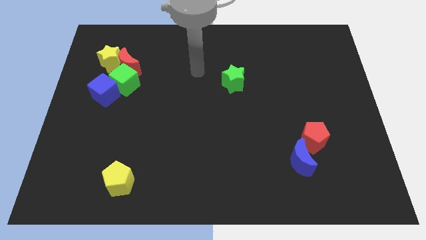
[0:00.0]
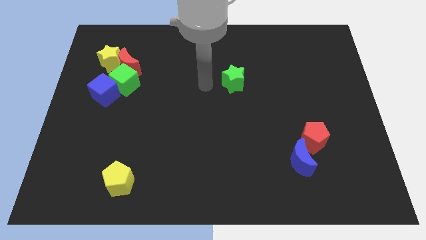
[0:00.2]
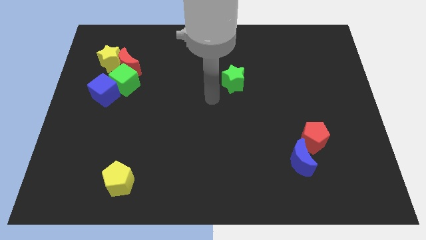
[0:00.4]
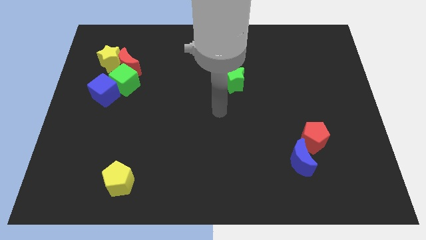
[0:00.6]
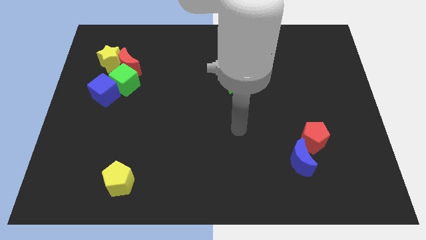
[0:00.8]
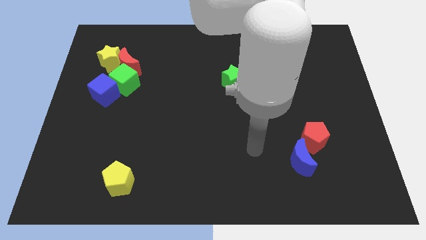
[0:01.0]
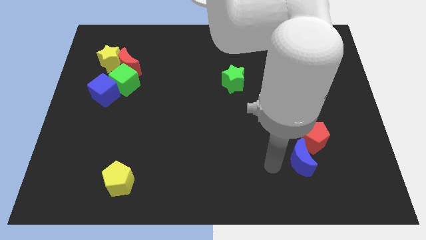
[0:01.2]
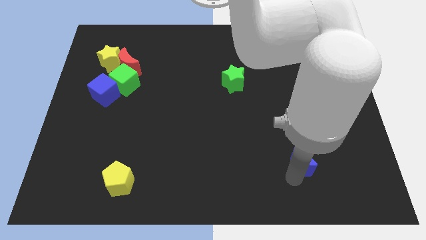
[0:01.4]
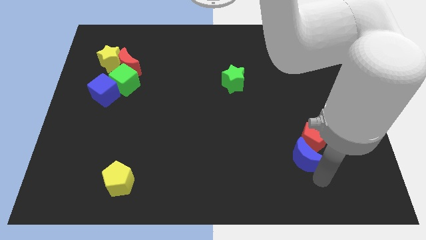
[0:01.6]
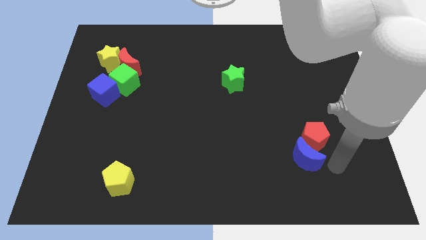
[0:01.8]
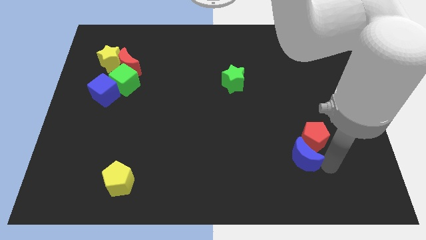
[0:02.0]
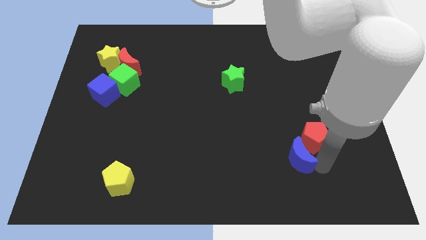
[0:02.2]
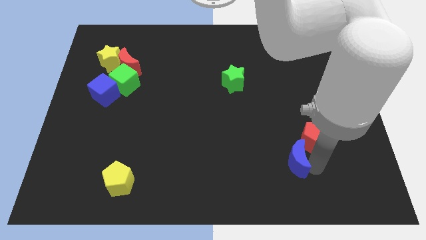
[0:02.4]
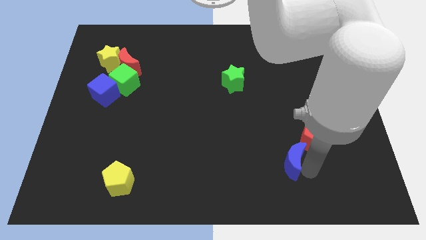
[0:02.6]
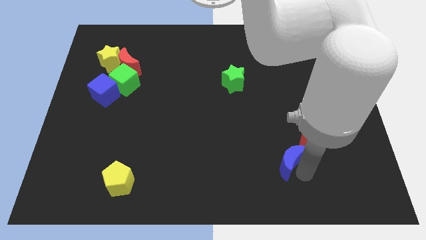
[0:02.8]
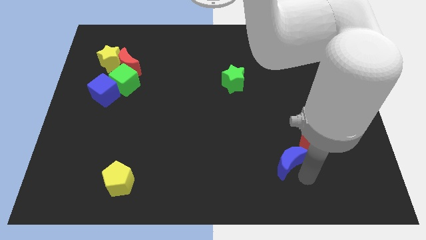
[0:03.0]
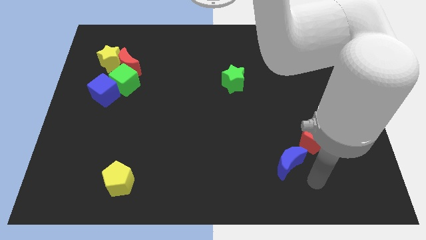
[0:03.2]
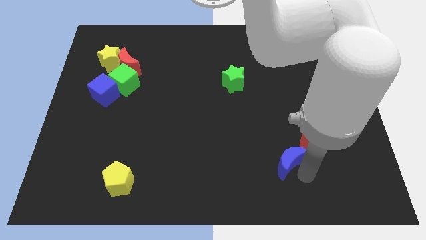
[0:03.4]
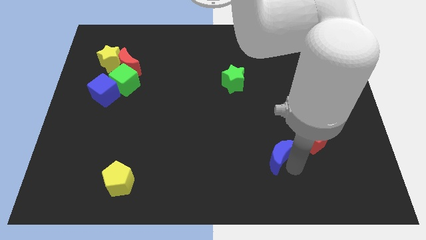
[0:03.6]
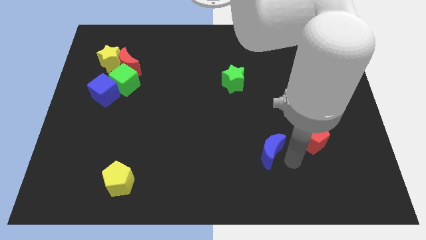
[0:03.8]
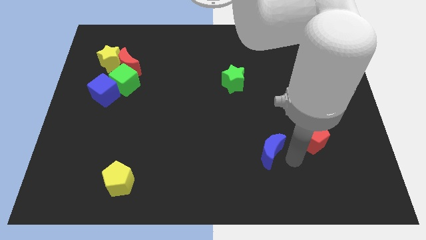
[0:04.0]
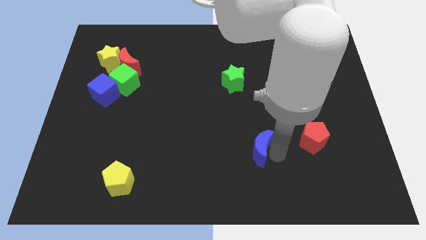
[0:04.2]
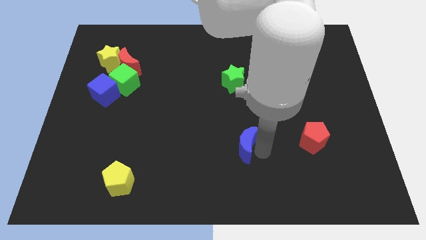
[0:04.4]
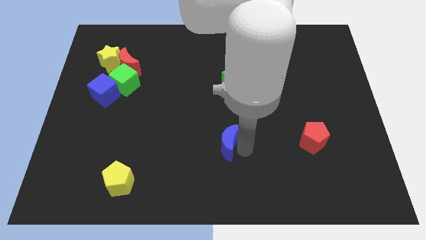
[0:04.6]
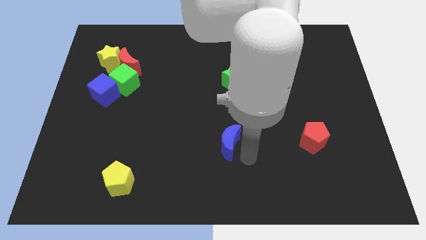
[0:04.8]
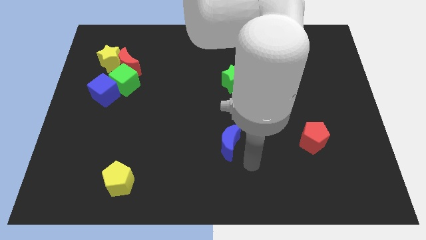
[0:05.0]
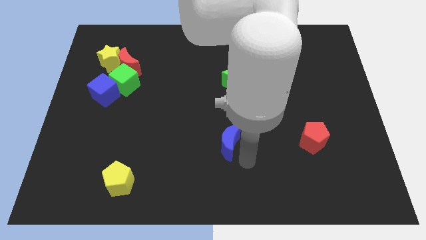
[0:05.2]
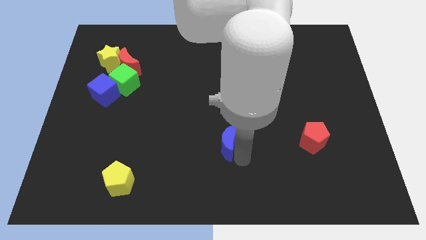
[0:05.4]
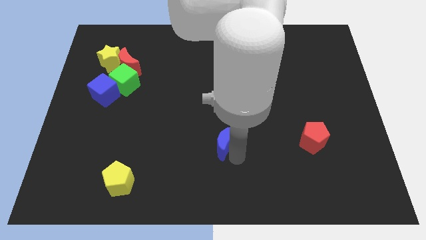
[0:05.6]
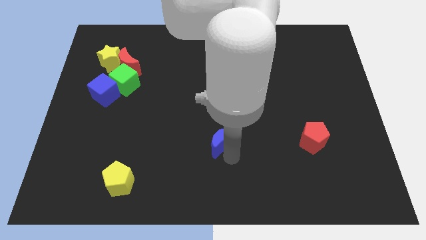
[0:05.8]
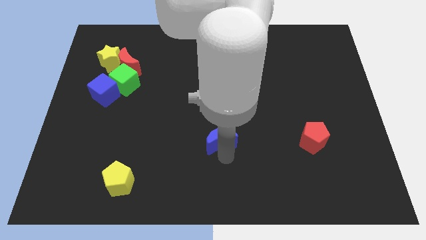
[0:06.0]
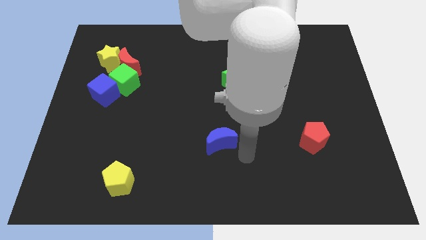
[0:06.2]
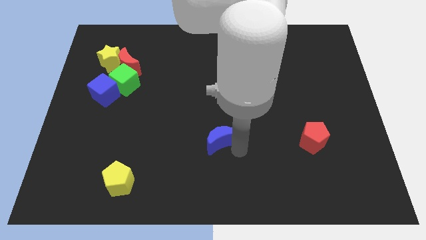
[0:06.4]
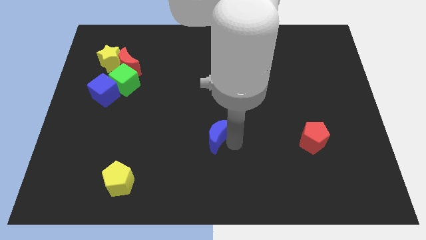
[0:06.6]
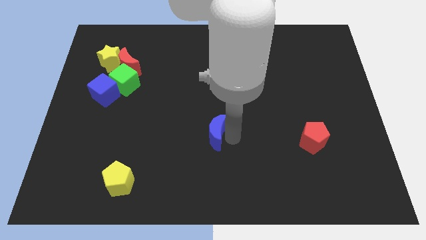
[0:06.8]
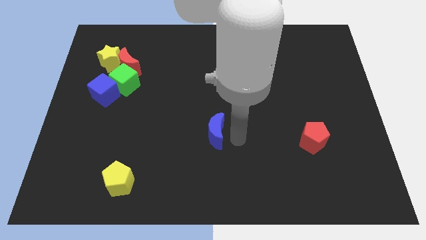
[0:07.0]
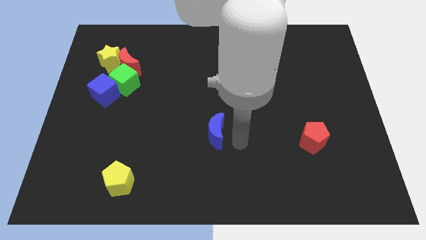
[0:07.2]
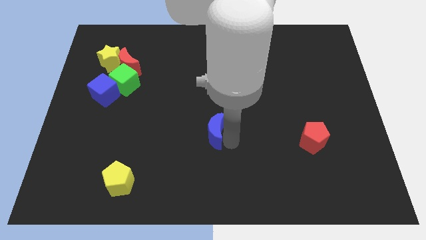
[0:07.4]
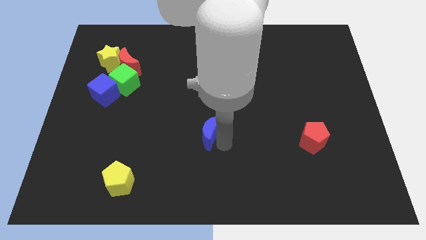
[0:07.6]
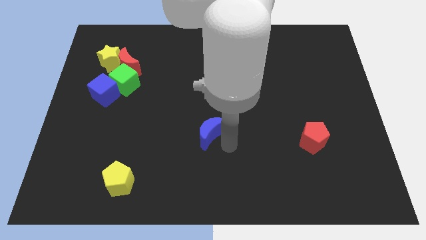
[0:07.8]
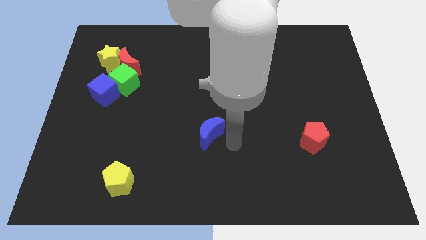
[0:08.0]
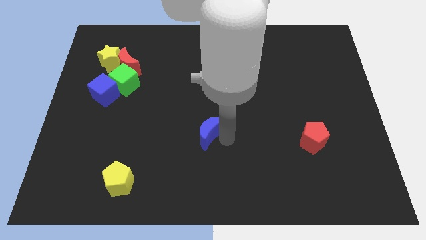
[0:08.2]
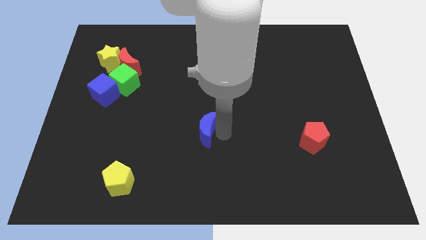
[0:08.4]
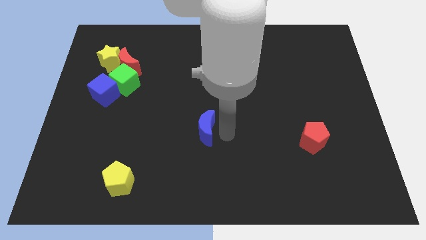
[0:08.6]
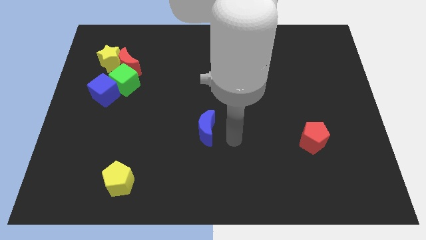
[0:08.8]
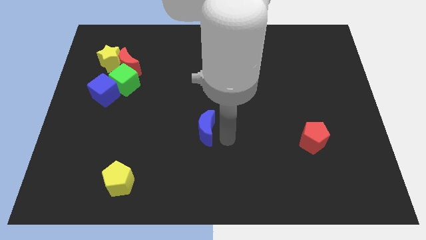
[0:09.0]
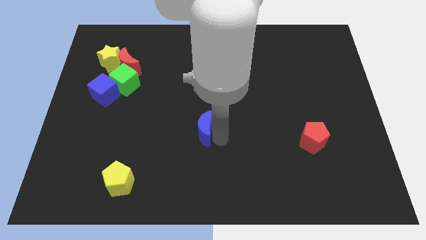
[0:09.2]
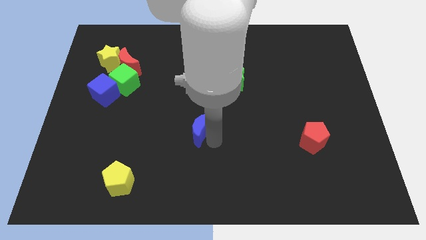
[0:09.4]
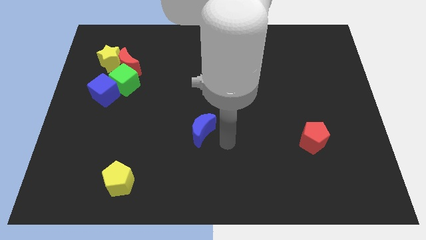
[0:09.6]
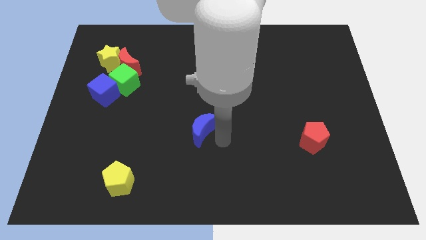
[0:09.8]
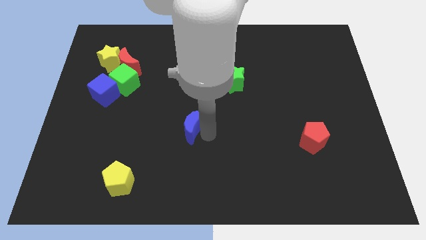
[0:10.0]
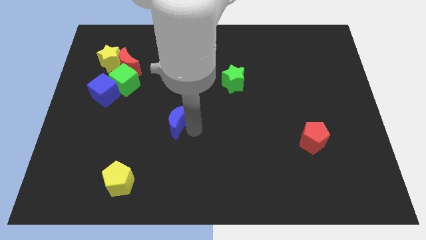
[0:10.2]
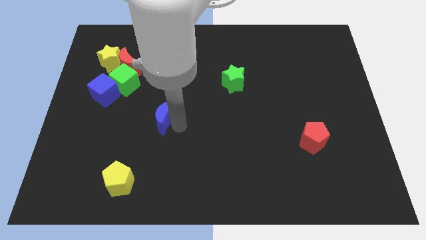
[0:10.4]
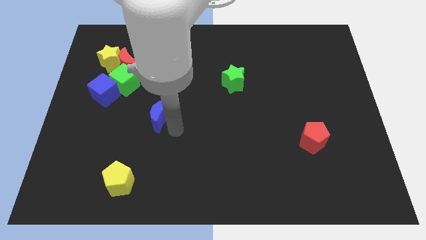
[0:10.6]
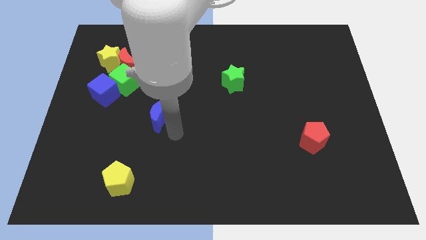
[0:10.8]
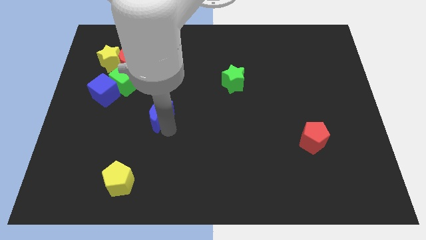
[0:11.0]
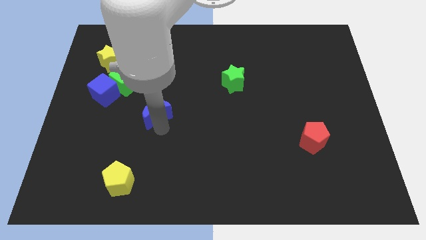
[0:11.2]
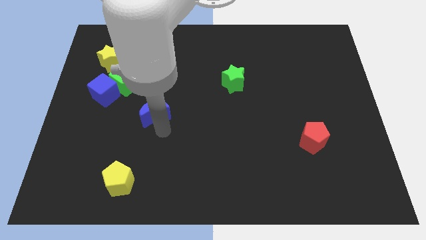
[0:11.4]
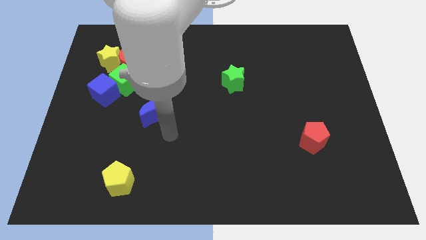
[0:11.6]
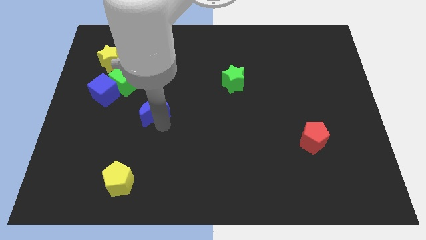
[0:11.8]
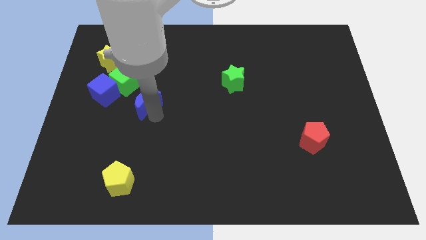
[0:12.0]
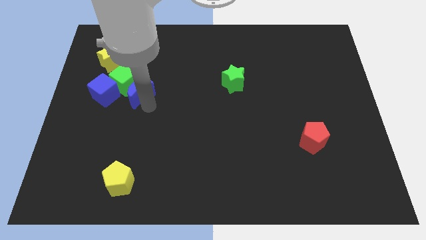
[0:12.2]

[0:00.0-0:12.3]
push the blue moon close to the green cube
